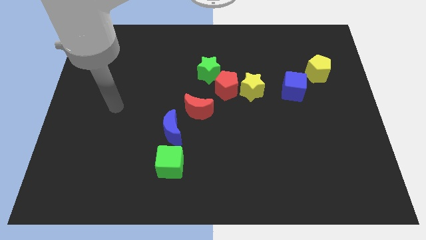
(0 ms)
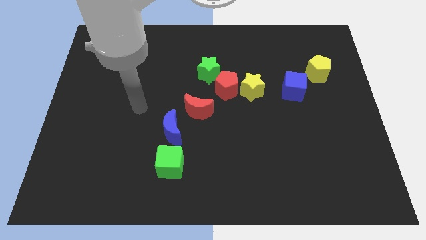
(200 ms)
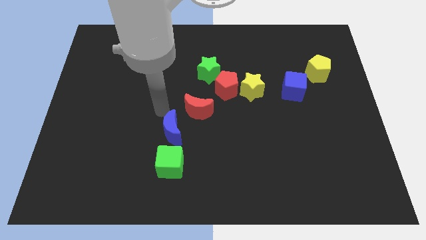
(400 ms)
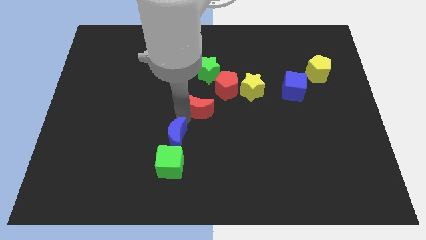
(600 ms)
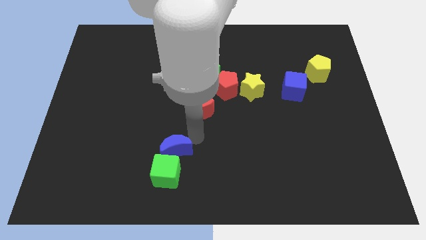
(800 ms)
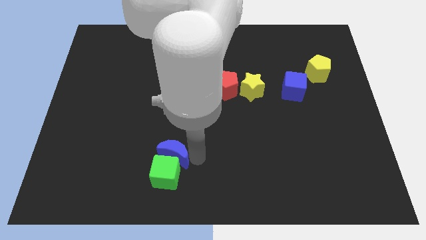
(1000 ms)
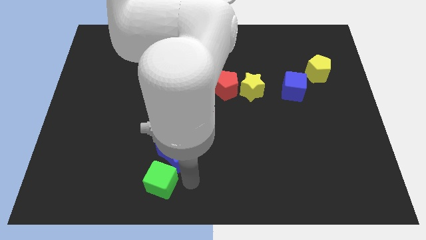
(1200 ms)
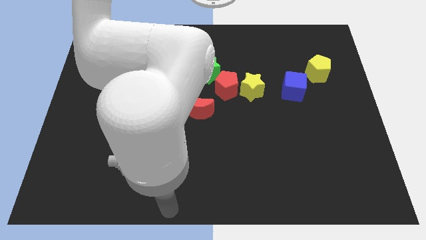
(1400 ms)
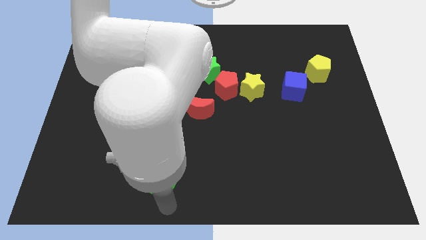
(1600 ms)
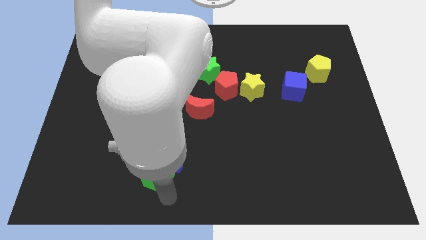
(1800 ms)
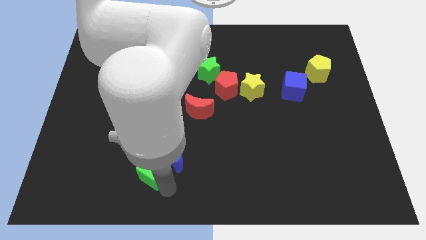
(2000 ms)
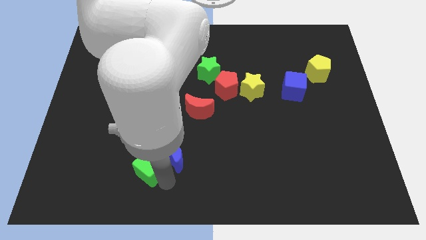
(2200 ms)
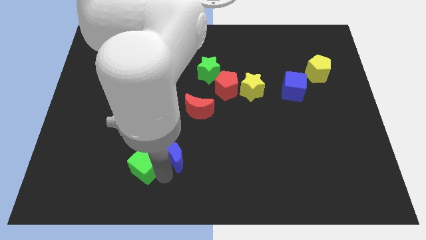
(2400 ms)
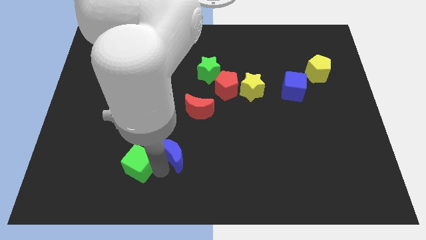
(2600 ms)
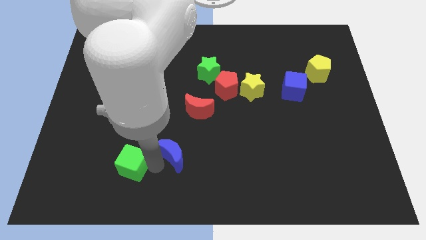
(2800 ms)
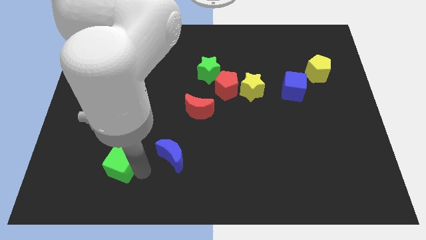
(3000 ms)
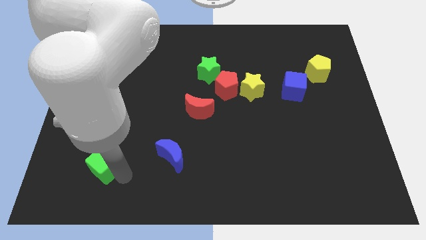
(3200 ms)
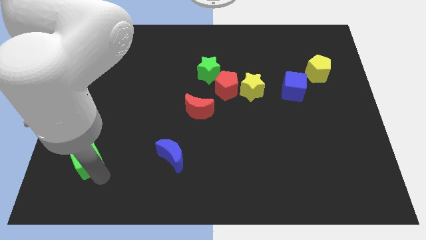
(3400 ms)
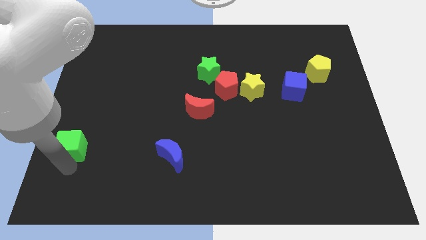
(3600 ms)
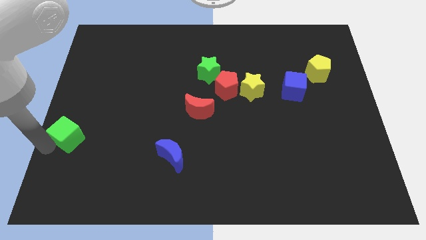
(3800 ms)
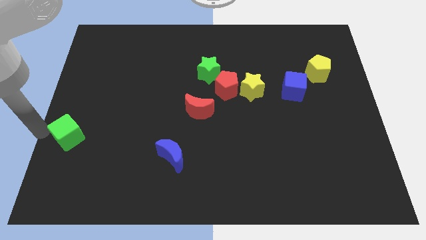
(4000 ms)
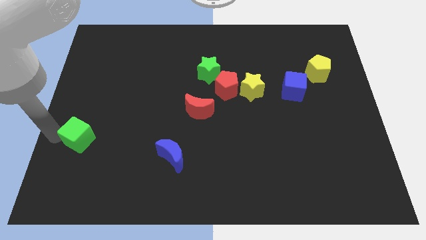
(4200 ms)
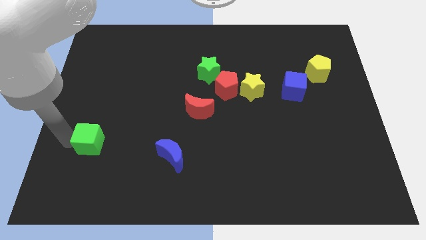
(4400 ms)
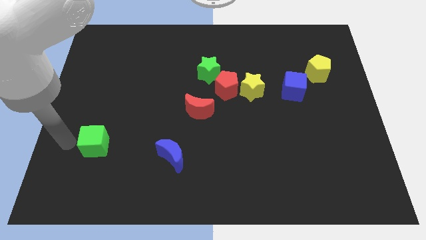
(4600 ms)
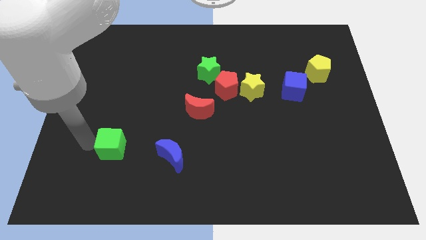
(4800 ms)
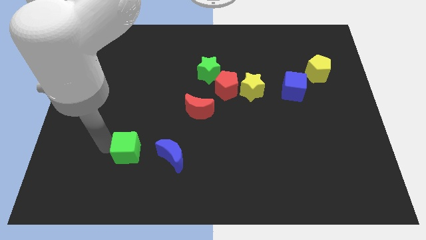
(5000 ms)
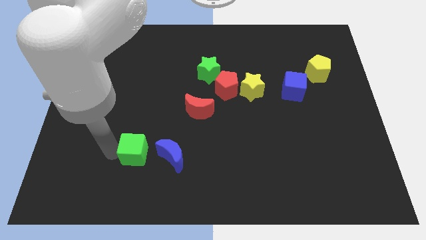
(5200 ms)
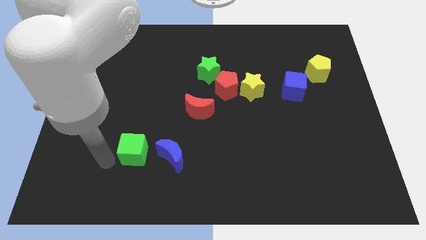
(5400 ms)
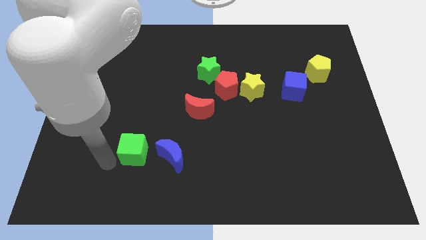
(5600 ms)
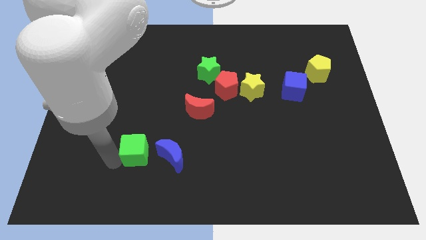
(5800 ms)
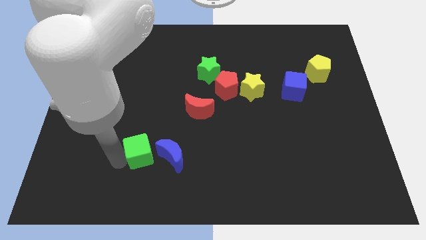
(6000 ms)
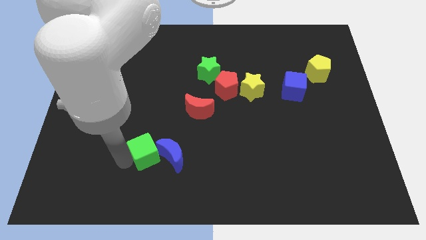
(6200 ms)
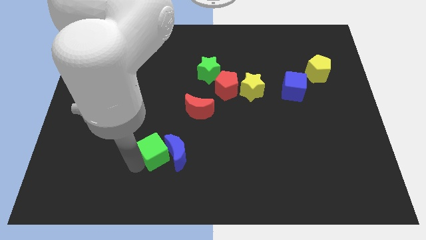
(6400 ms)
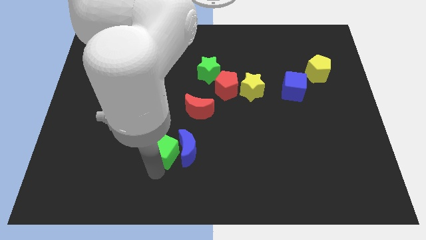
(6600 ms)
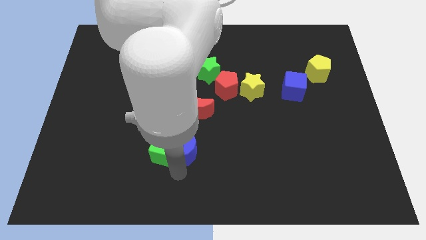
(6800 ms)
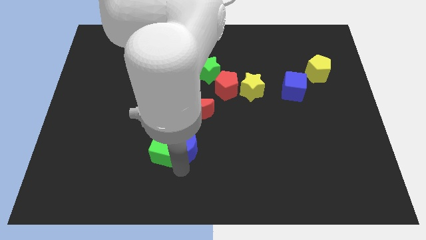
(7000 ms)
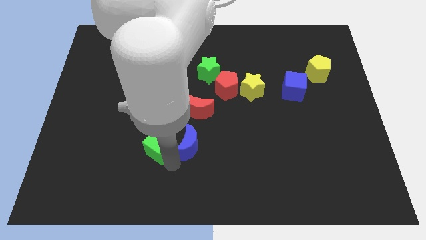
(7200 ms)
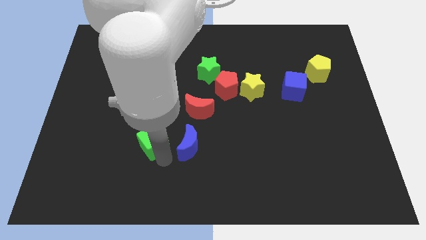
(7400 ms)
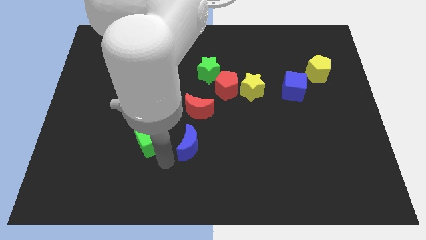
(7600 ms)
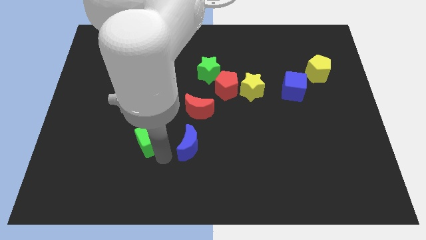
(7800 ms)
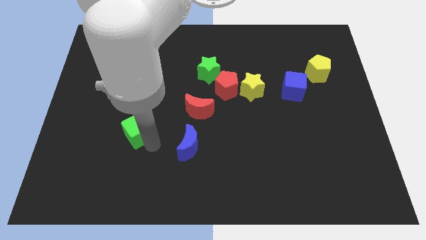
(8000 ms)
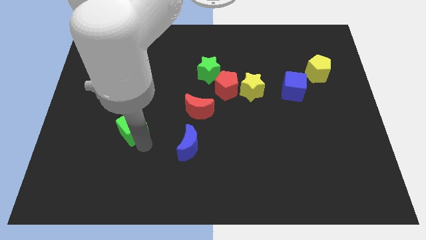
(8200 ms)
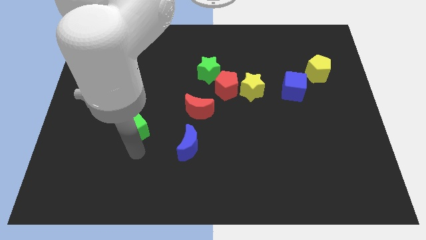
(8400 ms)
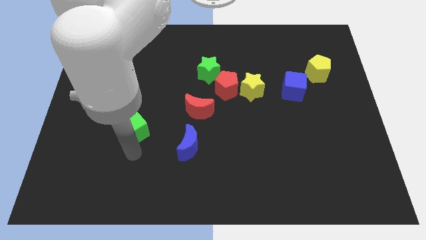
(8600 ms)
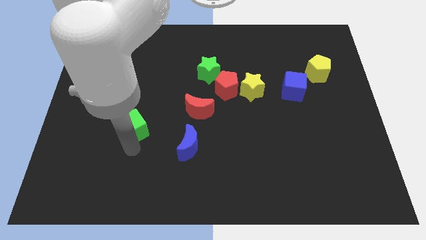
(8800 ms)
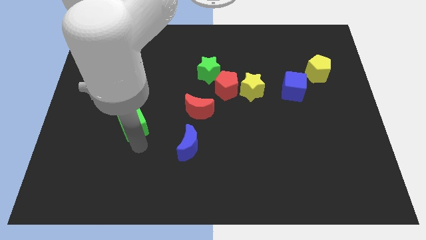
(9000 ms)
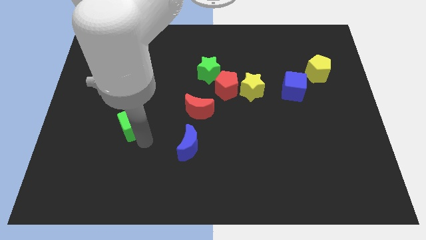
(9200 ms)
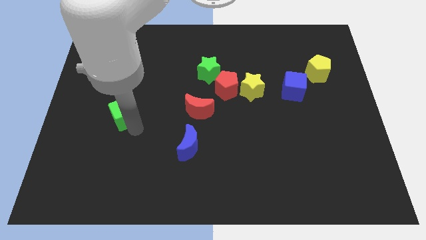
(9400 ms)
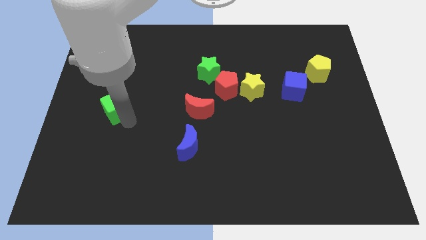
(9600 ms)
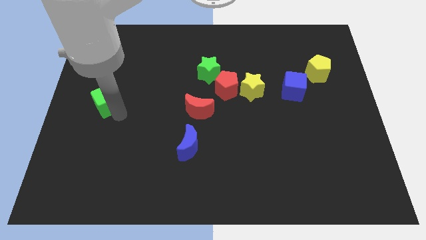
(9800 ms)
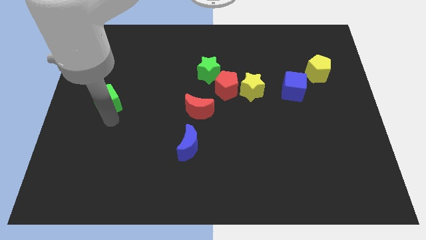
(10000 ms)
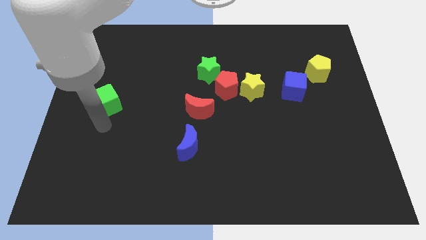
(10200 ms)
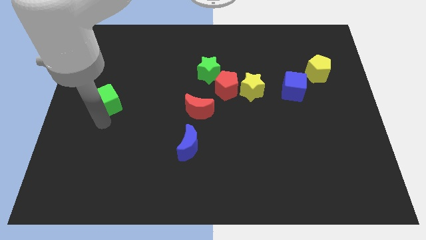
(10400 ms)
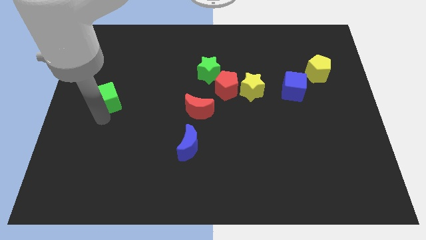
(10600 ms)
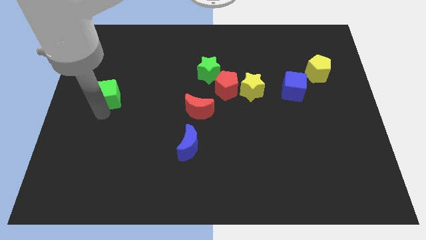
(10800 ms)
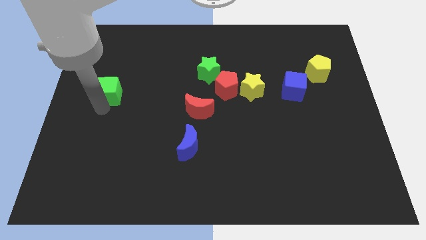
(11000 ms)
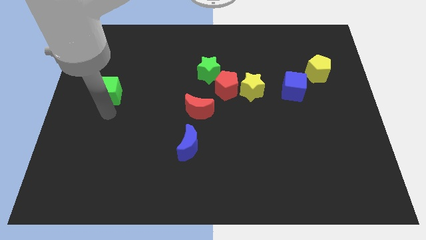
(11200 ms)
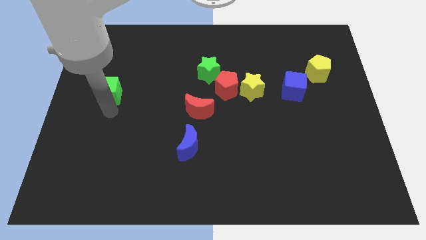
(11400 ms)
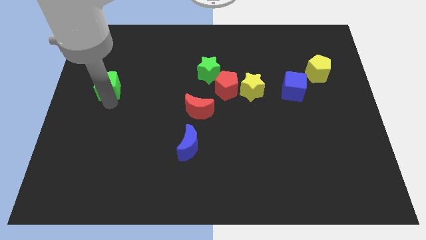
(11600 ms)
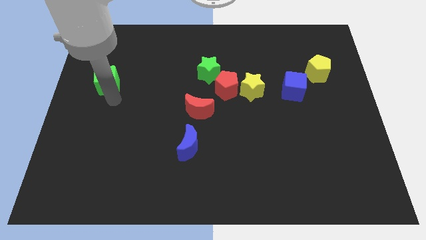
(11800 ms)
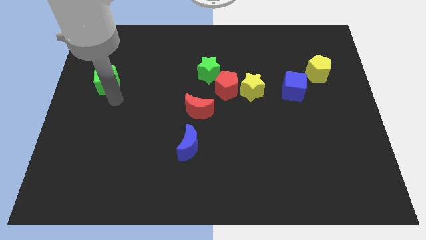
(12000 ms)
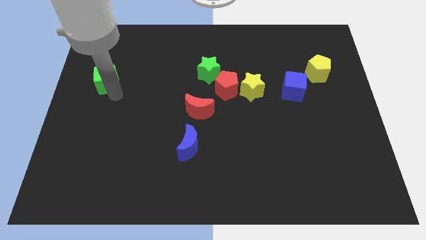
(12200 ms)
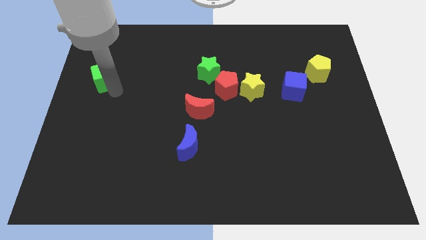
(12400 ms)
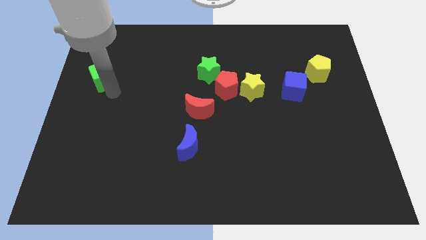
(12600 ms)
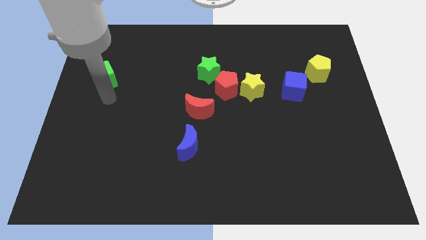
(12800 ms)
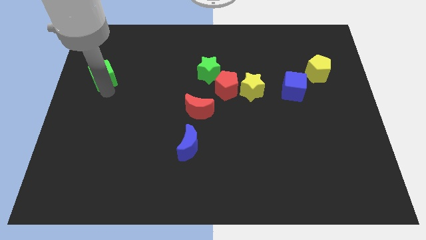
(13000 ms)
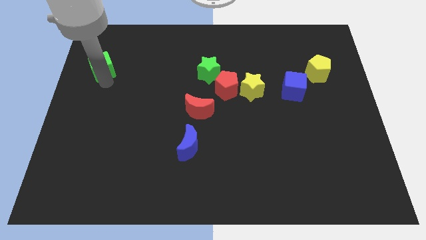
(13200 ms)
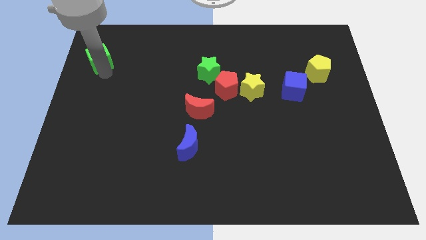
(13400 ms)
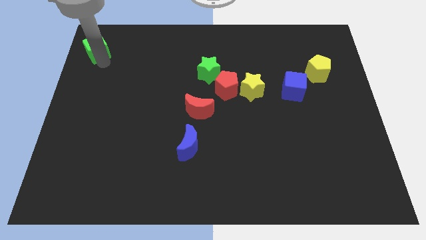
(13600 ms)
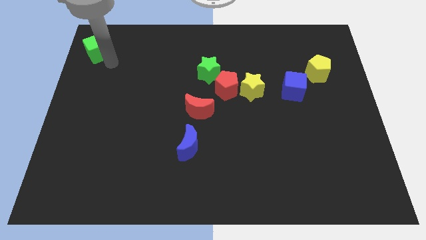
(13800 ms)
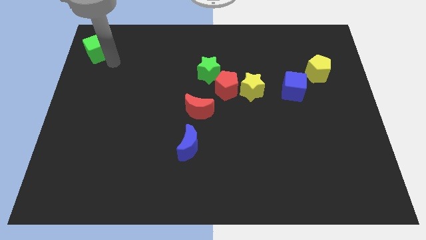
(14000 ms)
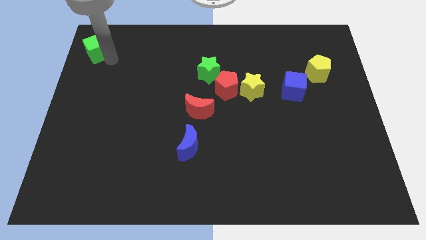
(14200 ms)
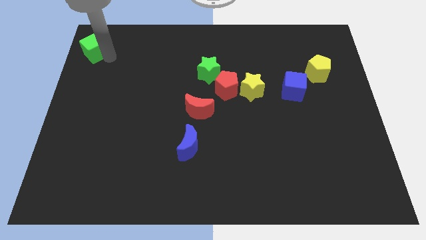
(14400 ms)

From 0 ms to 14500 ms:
push the green cube to the top left
